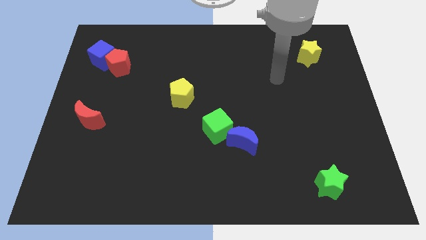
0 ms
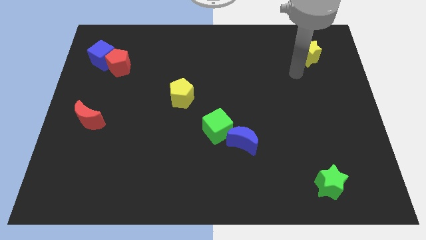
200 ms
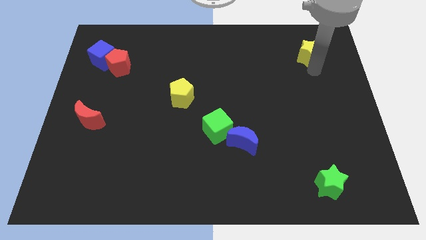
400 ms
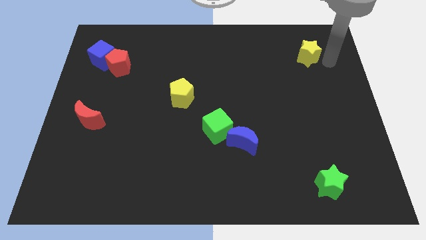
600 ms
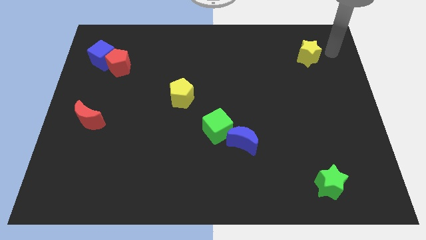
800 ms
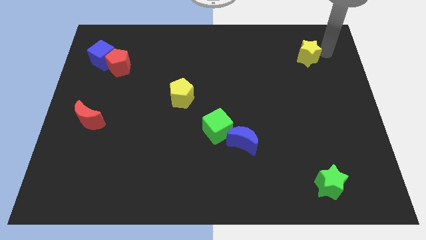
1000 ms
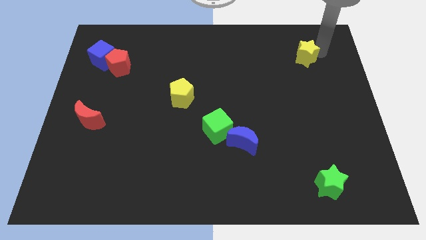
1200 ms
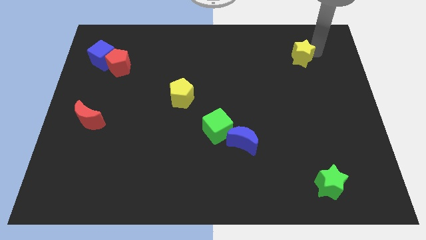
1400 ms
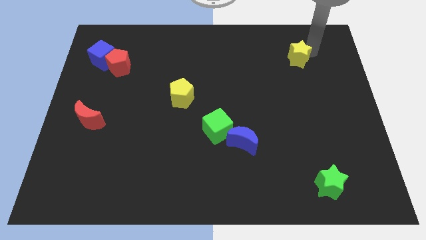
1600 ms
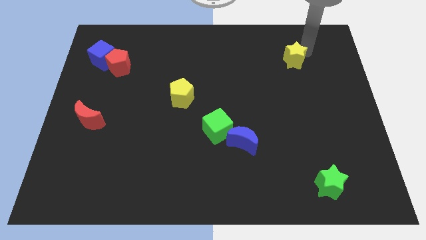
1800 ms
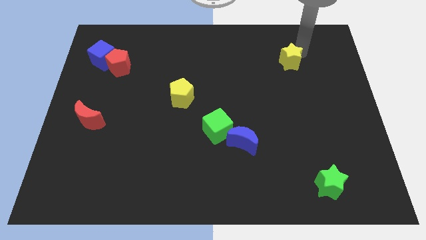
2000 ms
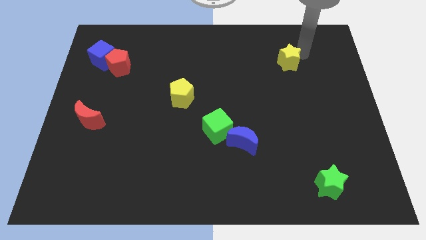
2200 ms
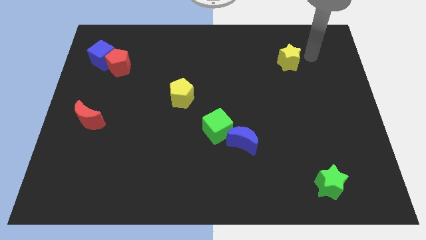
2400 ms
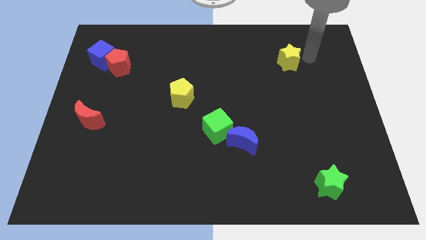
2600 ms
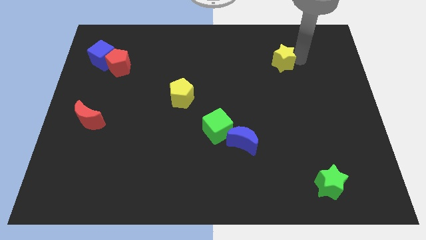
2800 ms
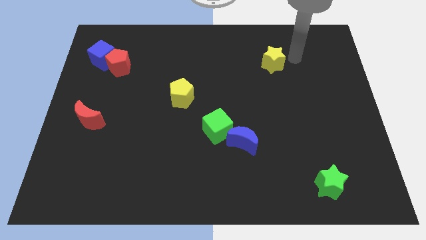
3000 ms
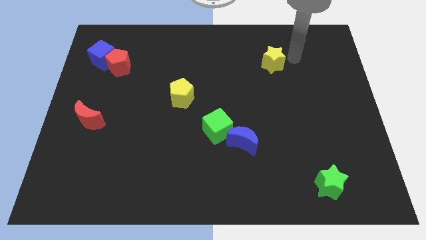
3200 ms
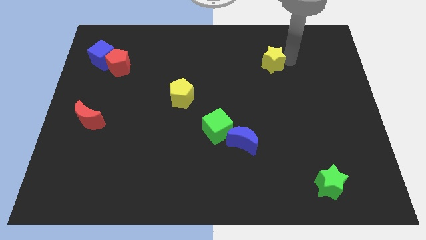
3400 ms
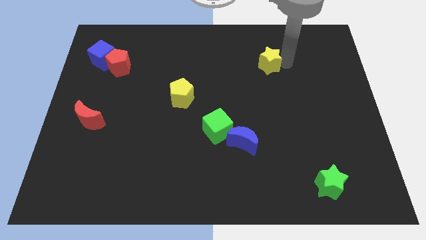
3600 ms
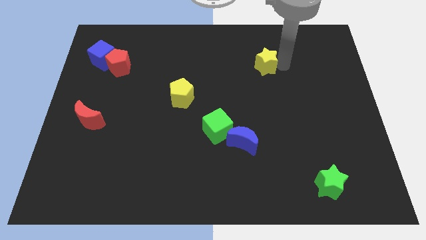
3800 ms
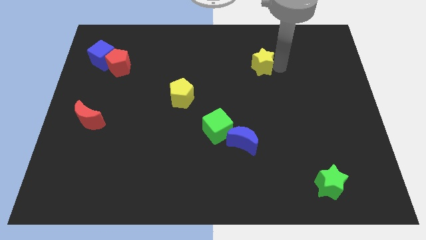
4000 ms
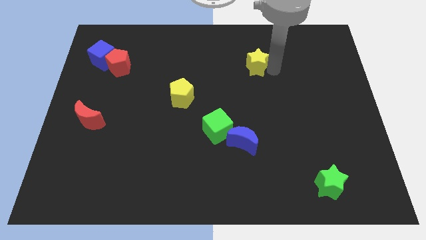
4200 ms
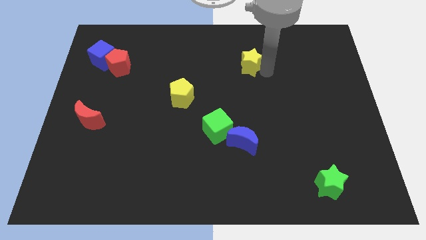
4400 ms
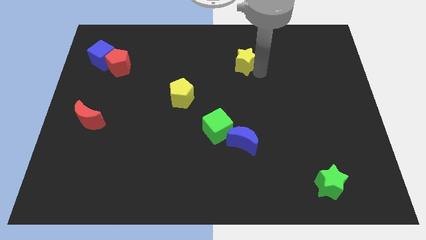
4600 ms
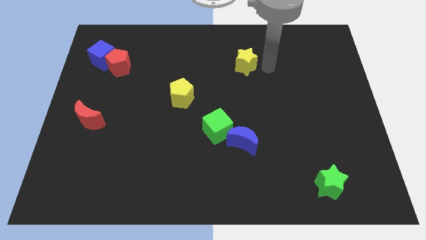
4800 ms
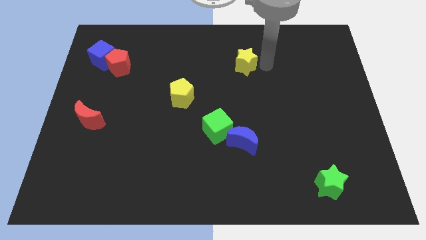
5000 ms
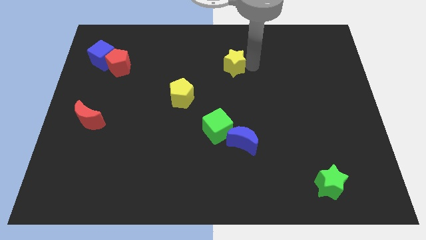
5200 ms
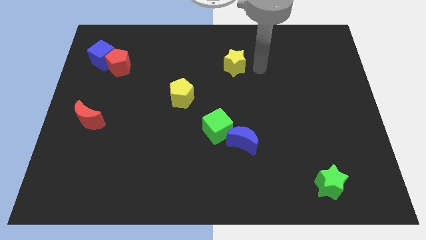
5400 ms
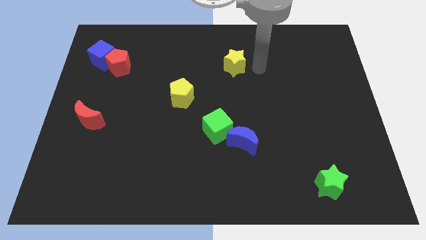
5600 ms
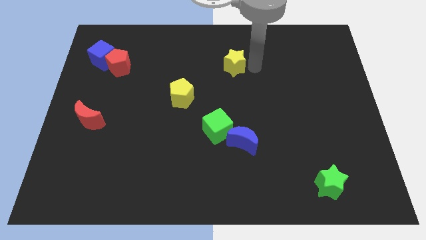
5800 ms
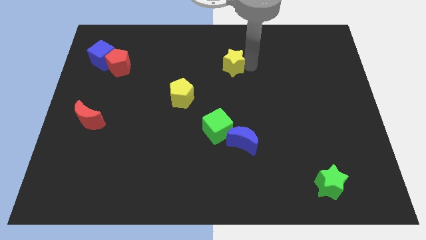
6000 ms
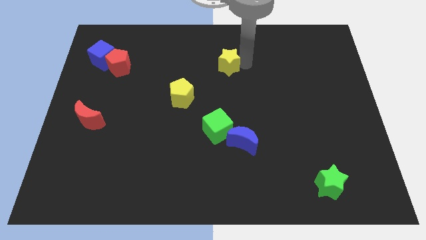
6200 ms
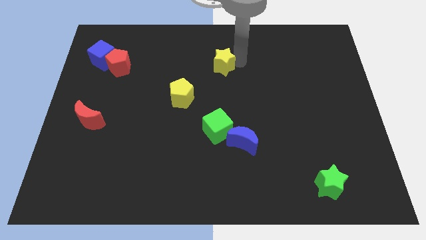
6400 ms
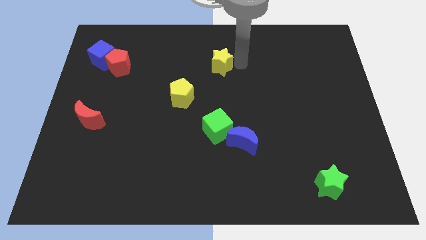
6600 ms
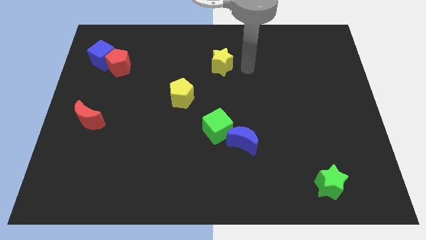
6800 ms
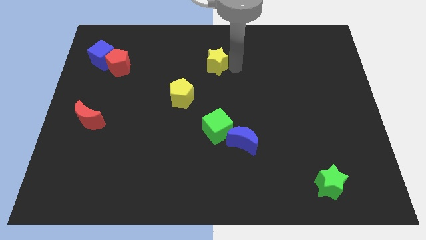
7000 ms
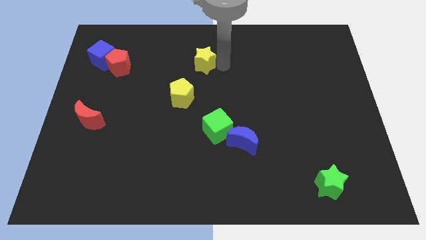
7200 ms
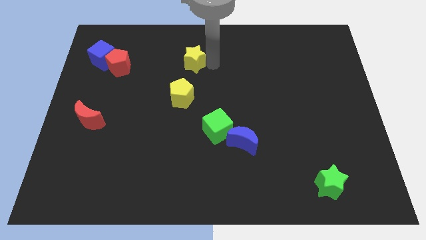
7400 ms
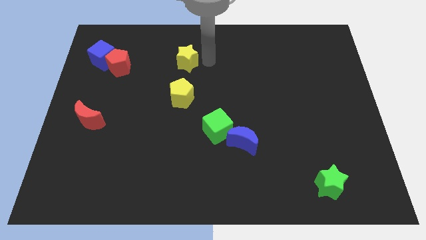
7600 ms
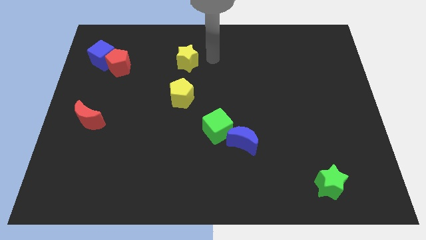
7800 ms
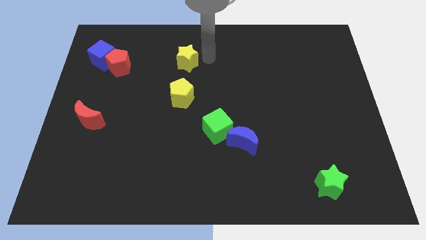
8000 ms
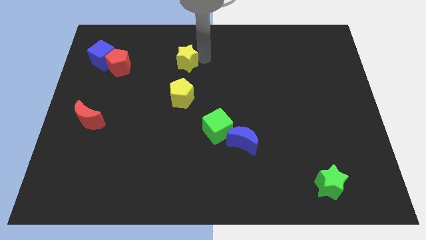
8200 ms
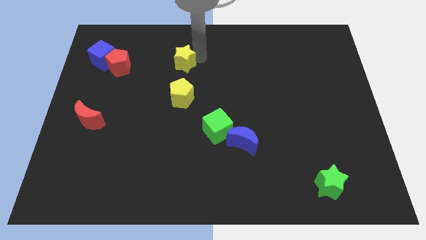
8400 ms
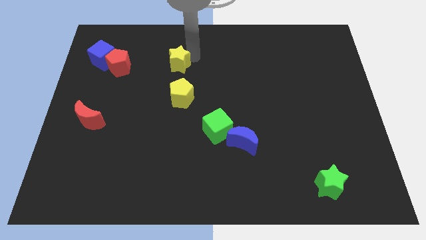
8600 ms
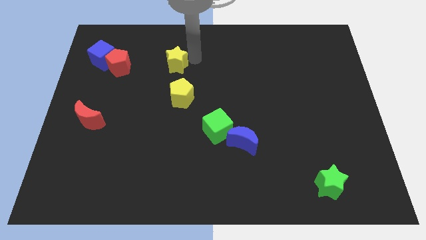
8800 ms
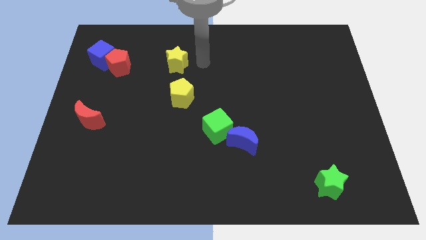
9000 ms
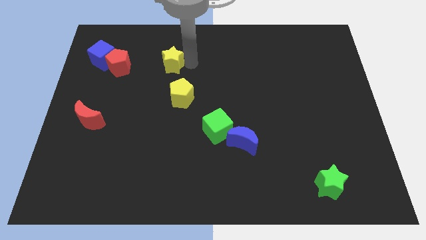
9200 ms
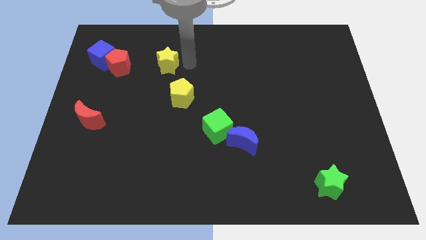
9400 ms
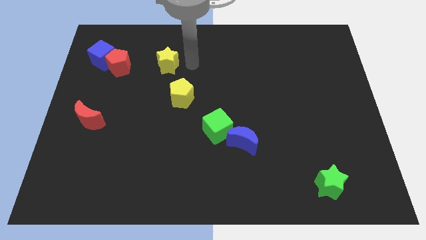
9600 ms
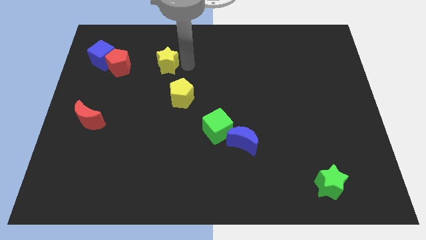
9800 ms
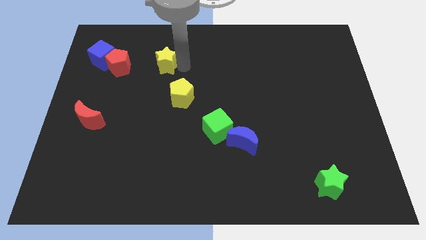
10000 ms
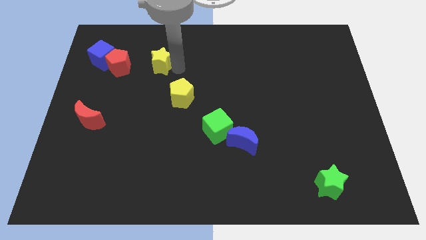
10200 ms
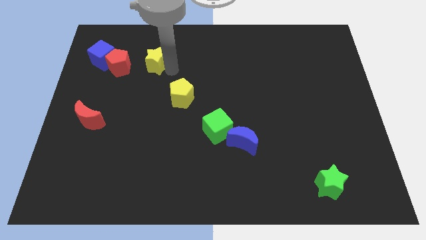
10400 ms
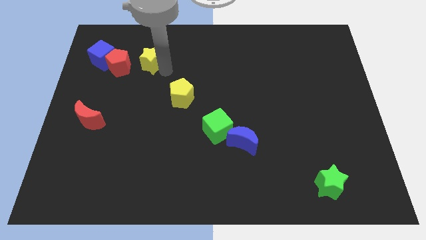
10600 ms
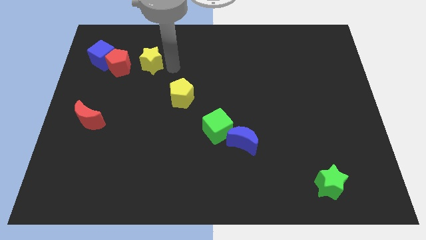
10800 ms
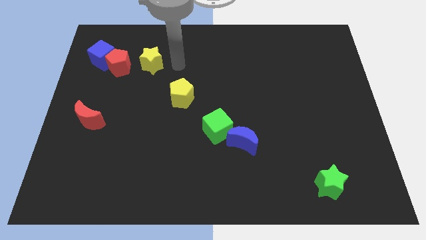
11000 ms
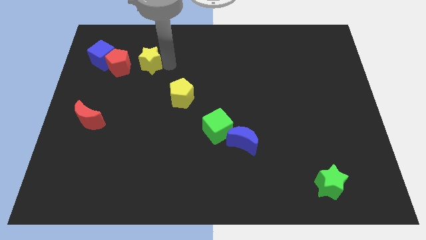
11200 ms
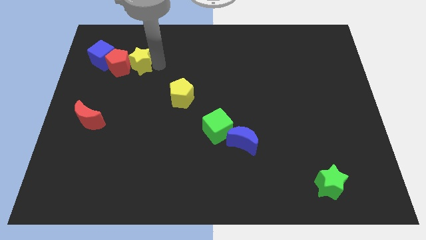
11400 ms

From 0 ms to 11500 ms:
move the yellow star to the red pentagon

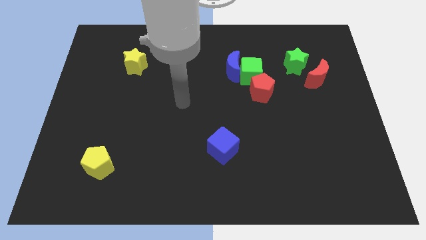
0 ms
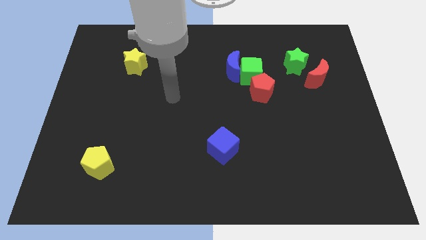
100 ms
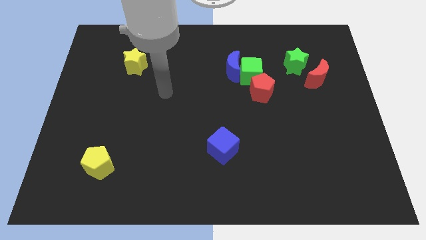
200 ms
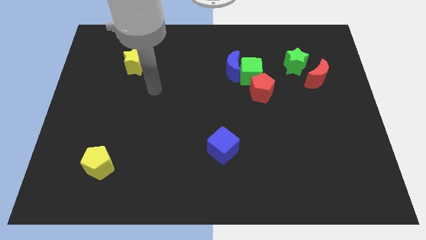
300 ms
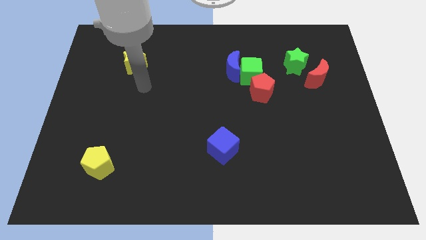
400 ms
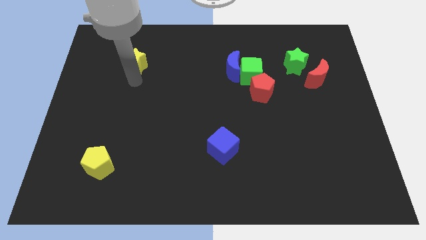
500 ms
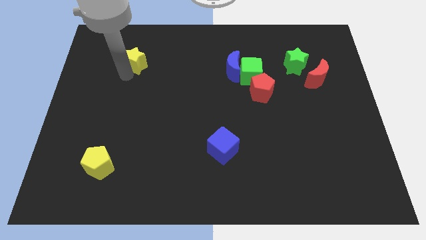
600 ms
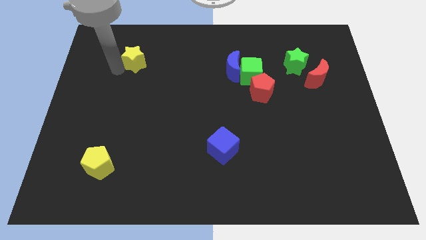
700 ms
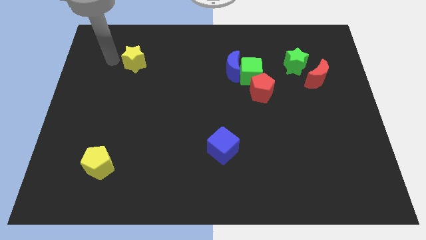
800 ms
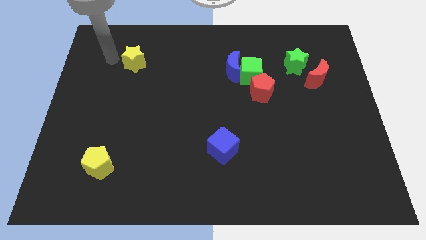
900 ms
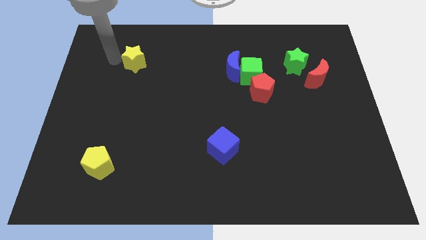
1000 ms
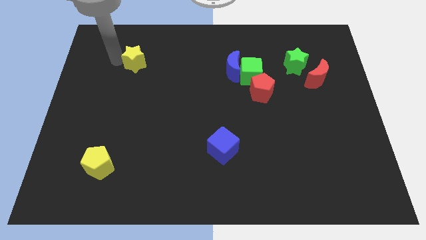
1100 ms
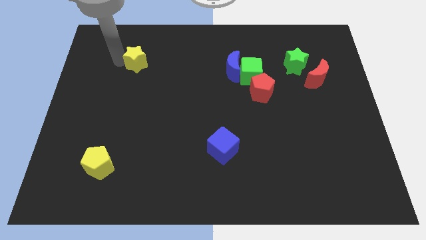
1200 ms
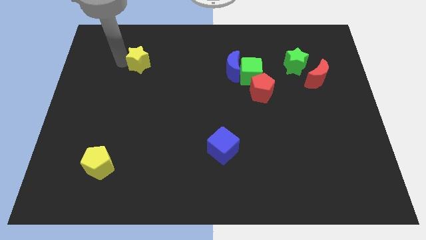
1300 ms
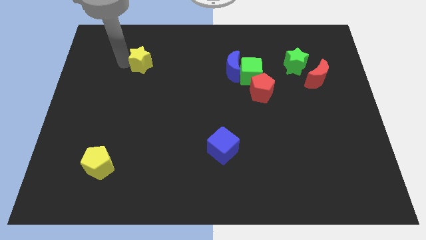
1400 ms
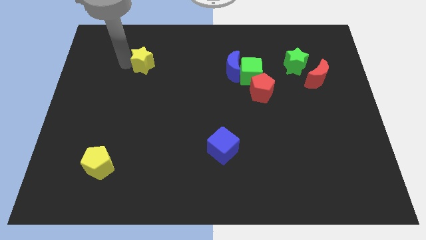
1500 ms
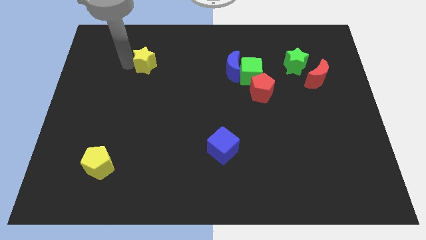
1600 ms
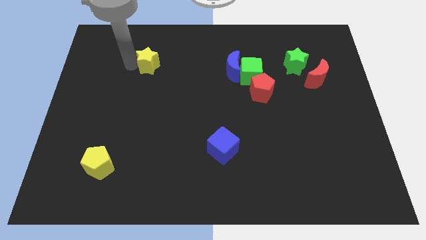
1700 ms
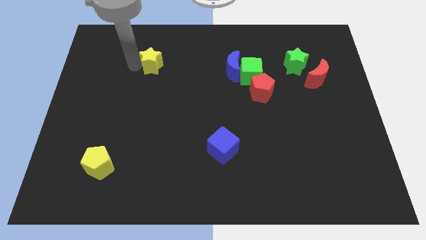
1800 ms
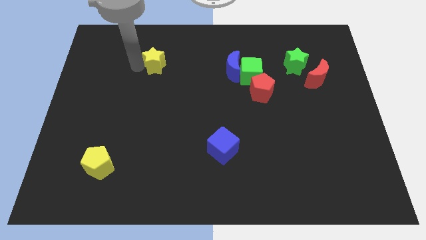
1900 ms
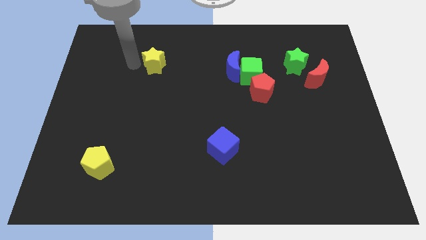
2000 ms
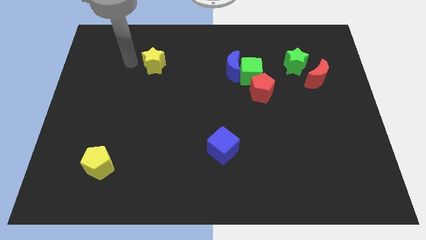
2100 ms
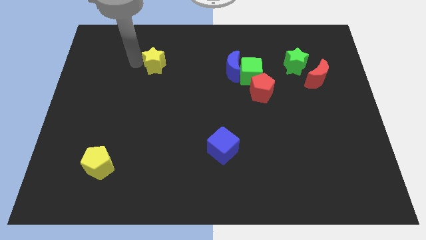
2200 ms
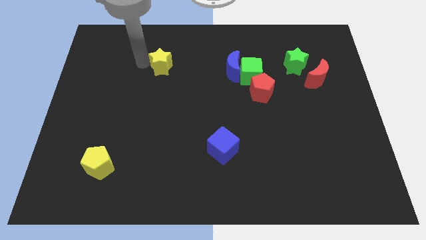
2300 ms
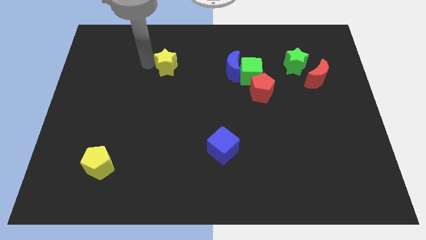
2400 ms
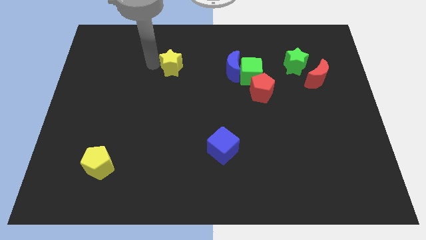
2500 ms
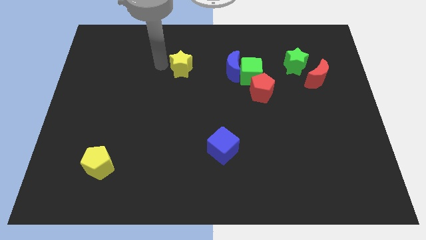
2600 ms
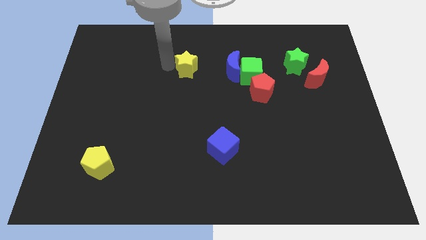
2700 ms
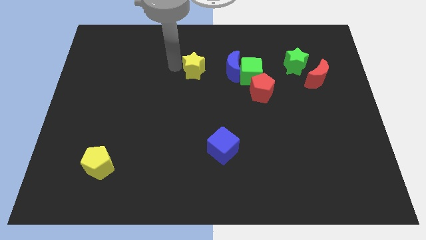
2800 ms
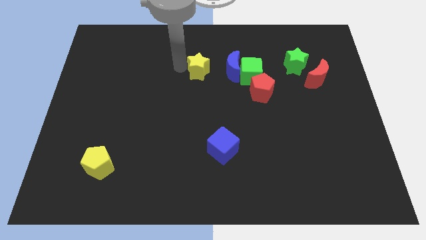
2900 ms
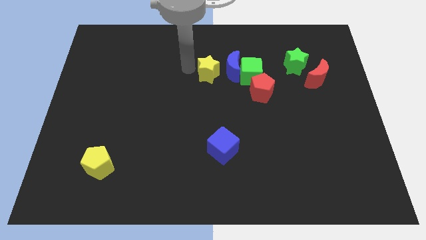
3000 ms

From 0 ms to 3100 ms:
put the yellow star next to the blue moon
